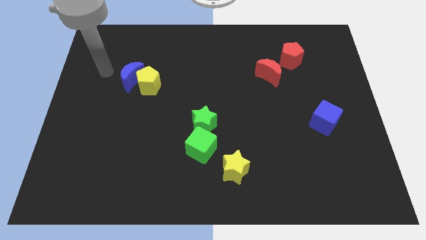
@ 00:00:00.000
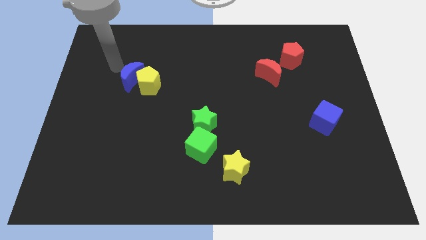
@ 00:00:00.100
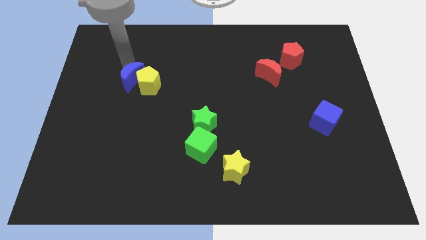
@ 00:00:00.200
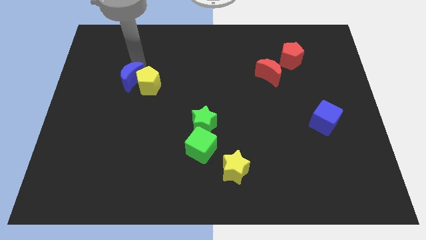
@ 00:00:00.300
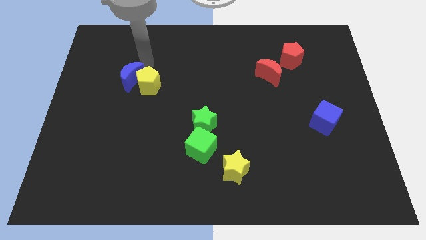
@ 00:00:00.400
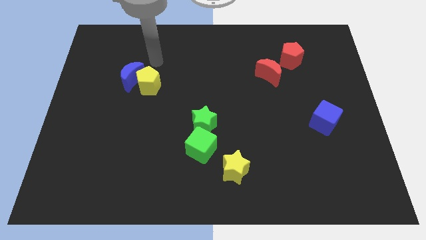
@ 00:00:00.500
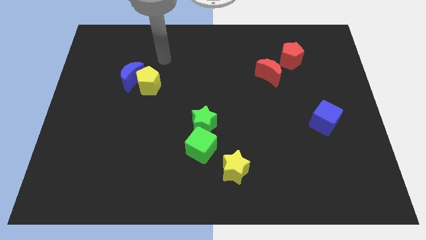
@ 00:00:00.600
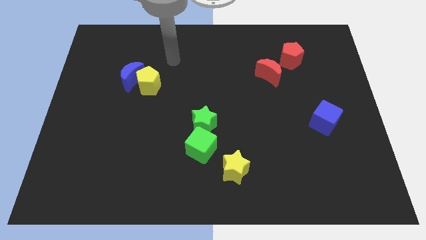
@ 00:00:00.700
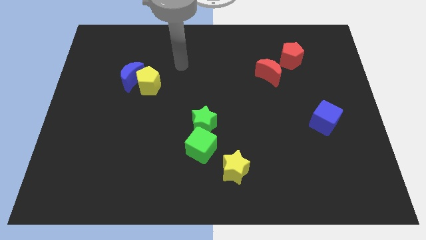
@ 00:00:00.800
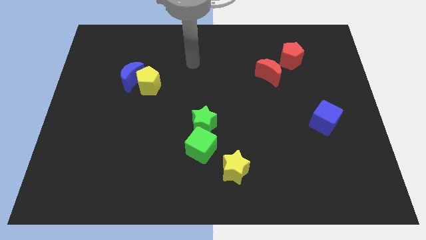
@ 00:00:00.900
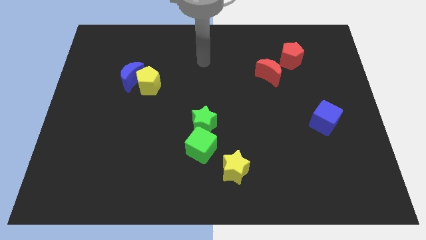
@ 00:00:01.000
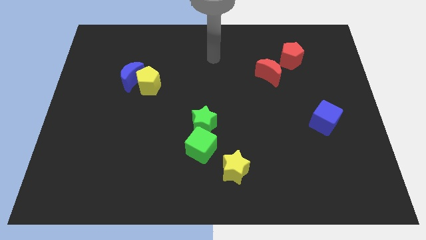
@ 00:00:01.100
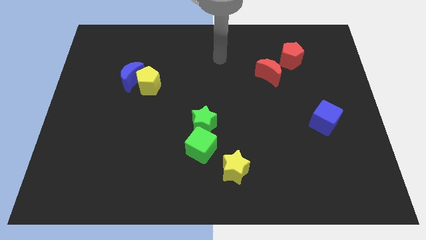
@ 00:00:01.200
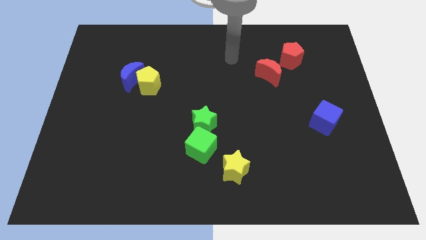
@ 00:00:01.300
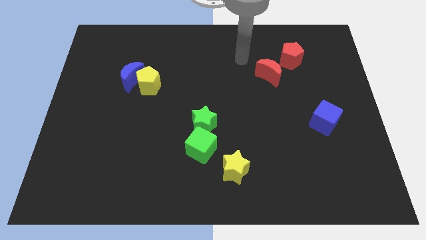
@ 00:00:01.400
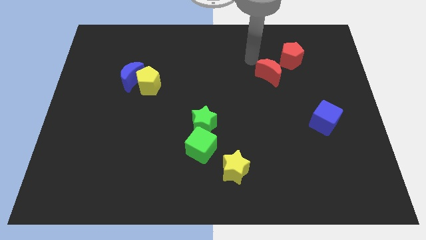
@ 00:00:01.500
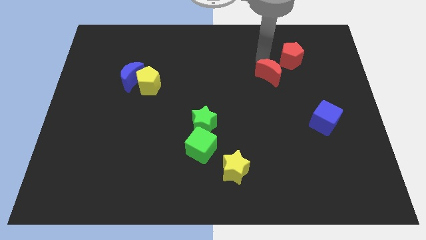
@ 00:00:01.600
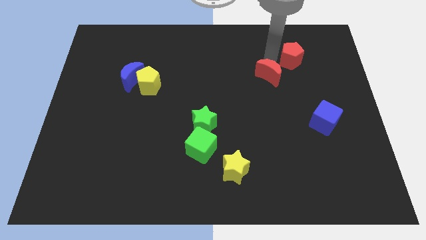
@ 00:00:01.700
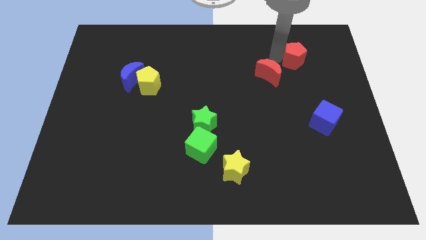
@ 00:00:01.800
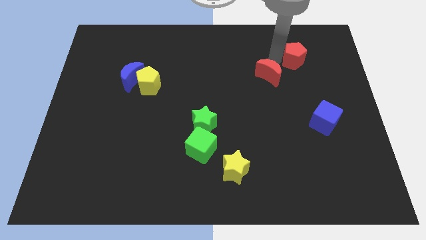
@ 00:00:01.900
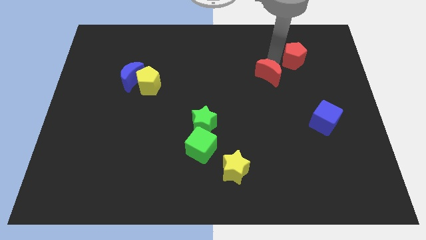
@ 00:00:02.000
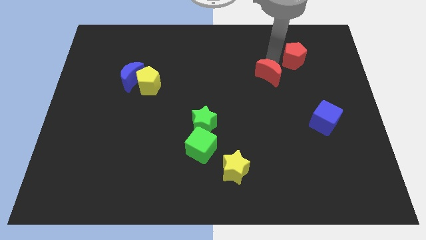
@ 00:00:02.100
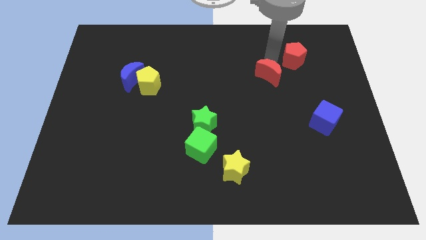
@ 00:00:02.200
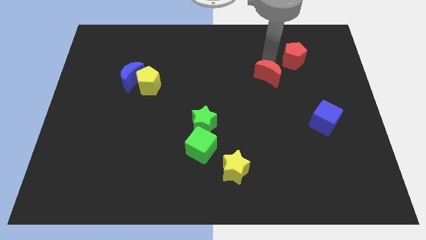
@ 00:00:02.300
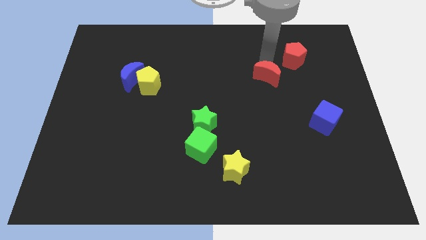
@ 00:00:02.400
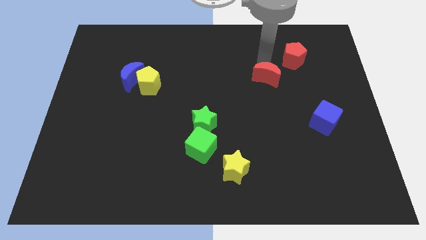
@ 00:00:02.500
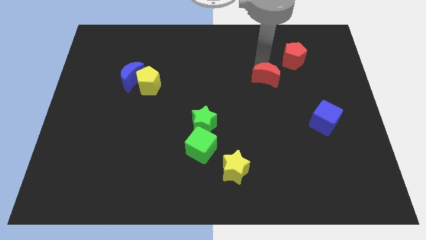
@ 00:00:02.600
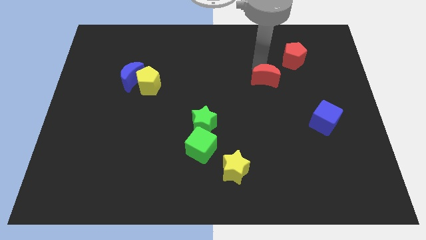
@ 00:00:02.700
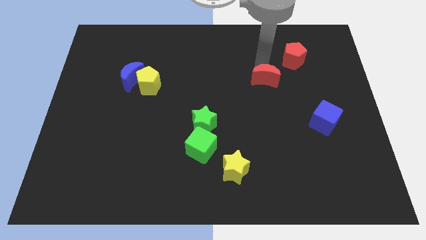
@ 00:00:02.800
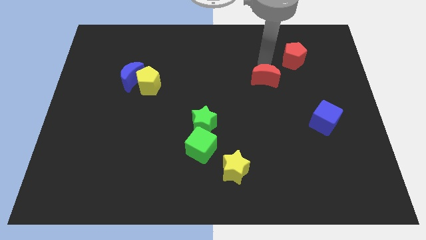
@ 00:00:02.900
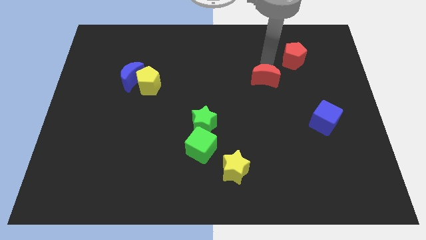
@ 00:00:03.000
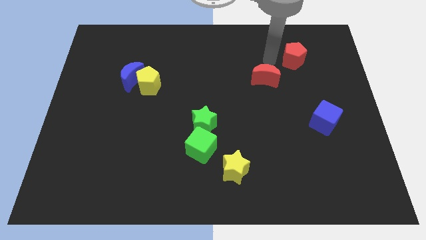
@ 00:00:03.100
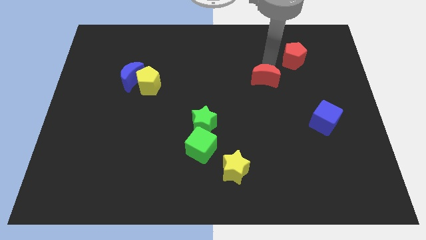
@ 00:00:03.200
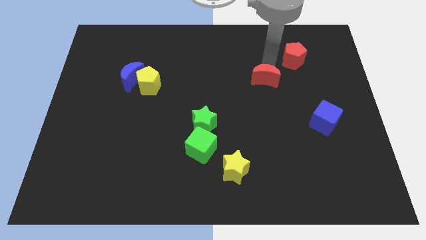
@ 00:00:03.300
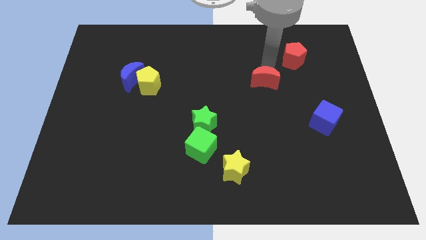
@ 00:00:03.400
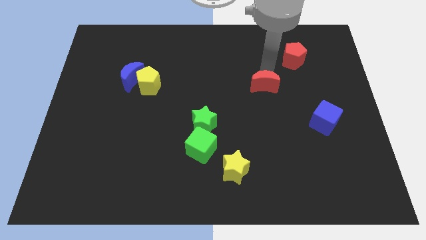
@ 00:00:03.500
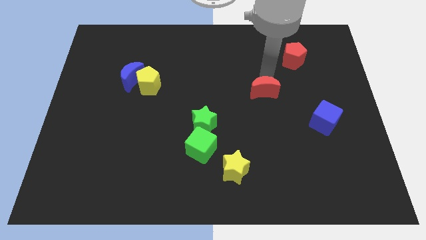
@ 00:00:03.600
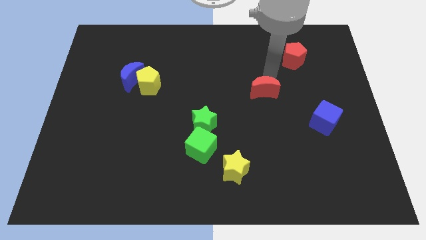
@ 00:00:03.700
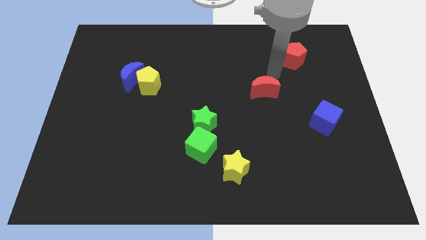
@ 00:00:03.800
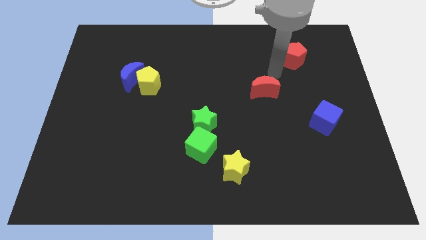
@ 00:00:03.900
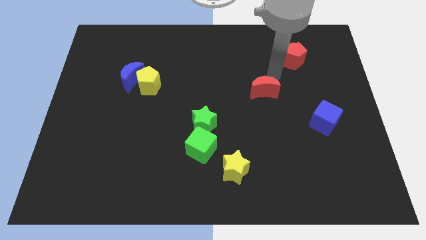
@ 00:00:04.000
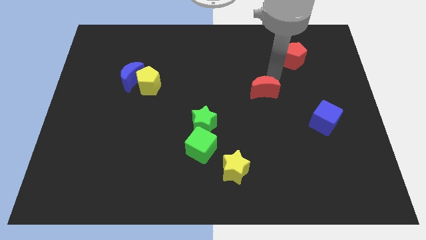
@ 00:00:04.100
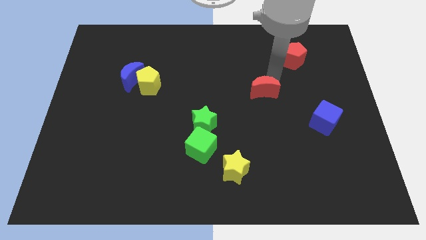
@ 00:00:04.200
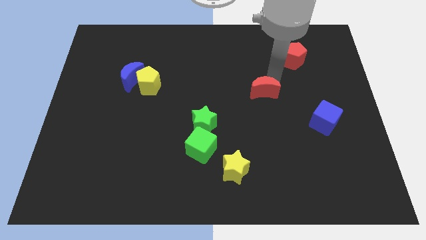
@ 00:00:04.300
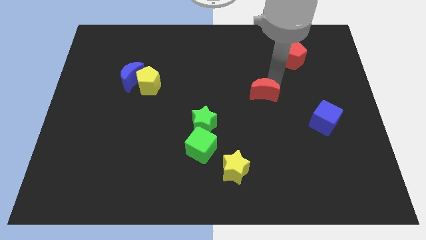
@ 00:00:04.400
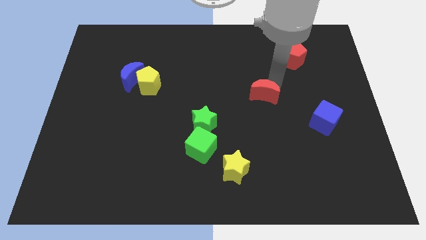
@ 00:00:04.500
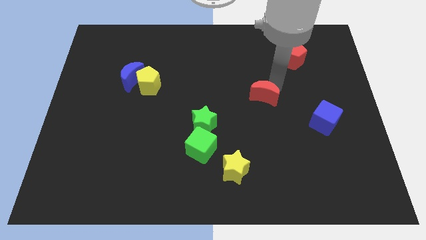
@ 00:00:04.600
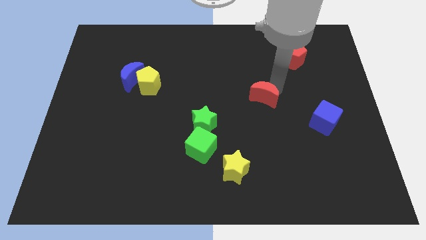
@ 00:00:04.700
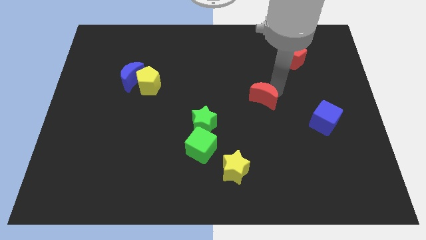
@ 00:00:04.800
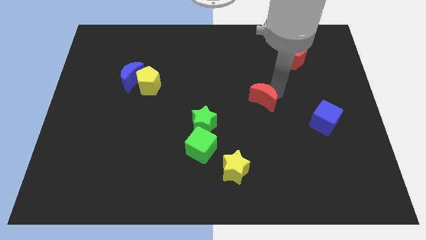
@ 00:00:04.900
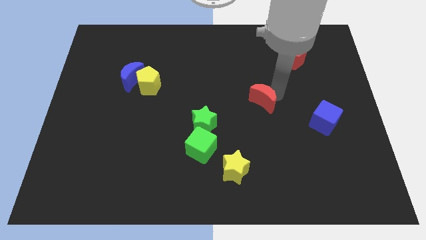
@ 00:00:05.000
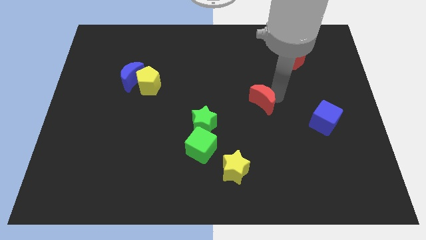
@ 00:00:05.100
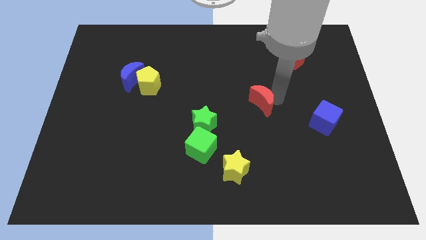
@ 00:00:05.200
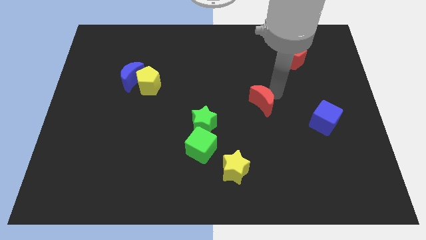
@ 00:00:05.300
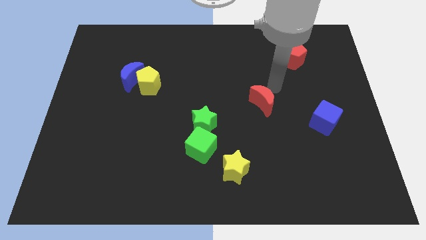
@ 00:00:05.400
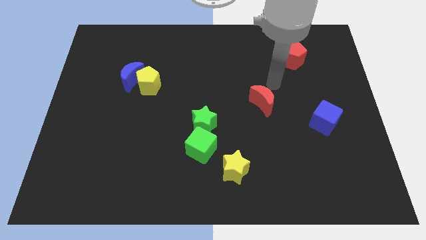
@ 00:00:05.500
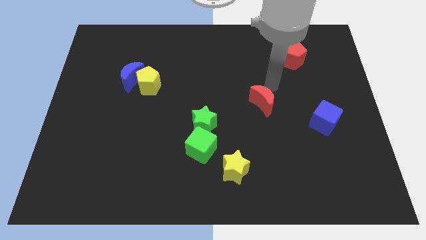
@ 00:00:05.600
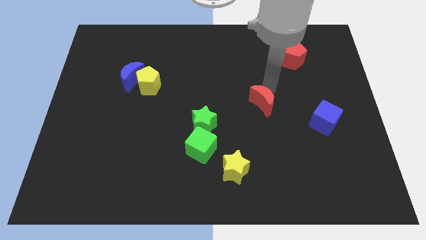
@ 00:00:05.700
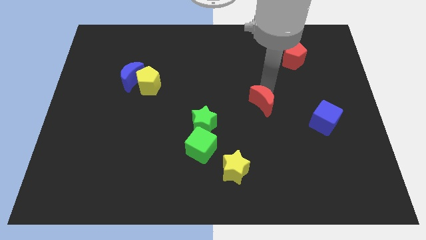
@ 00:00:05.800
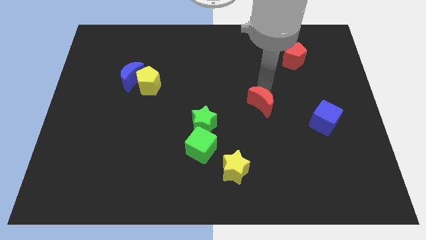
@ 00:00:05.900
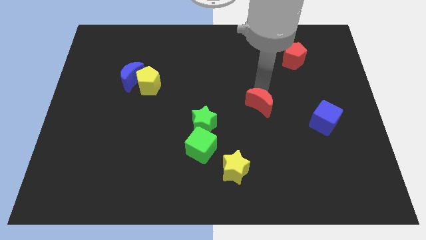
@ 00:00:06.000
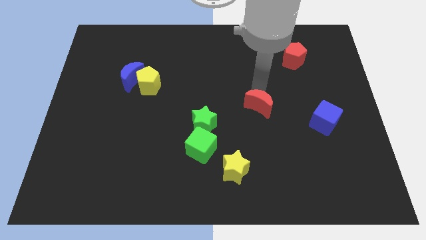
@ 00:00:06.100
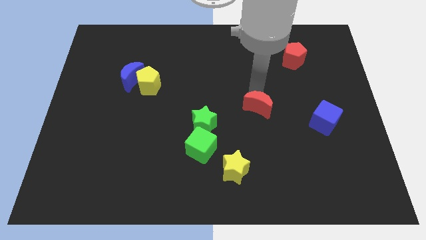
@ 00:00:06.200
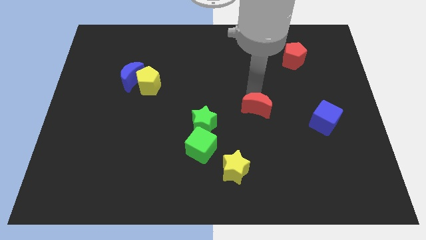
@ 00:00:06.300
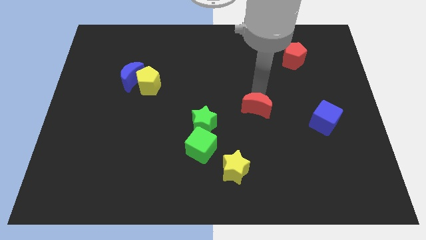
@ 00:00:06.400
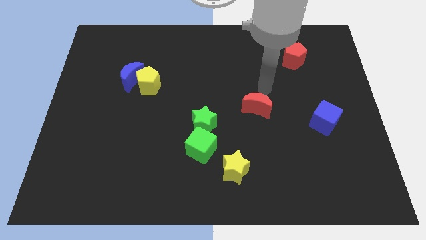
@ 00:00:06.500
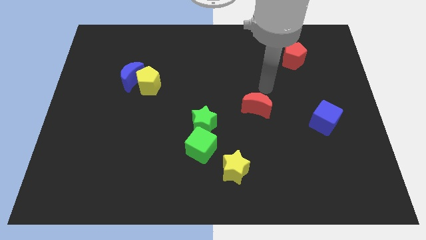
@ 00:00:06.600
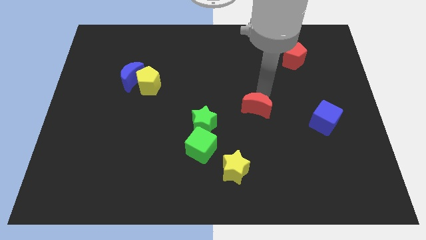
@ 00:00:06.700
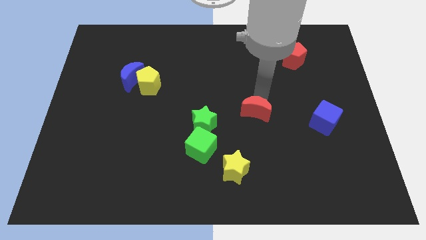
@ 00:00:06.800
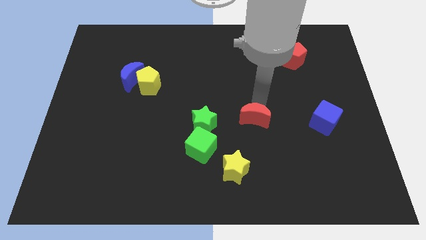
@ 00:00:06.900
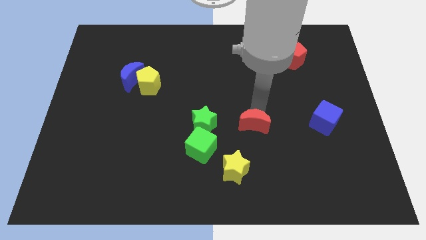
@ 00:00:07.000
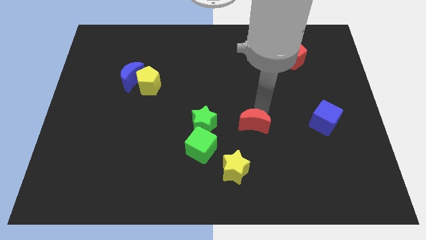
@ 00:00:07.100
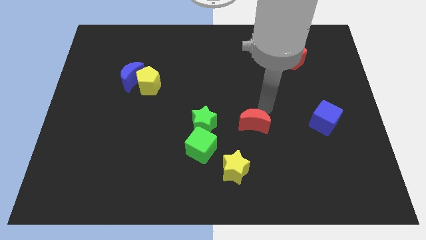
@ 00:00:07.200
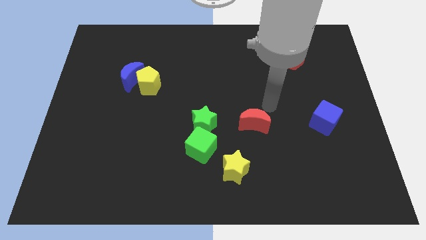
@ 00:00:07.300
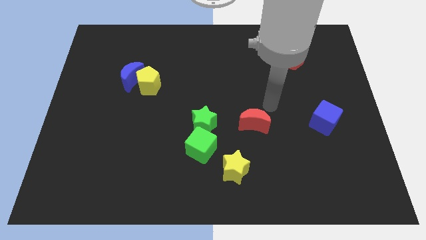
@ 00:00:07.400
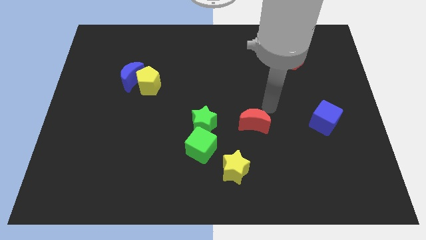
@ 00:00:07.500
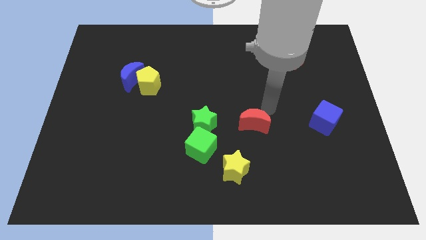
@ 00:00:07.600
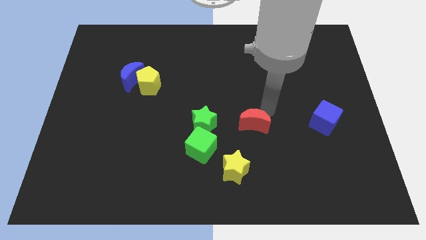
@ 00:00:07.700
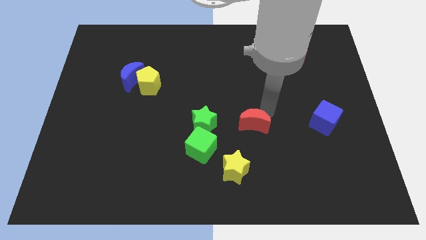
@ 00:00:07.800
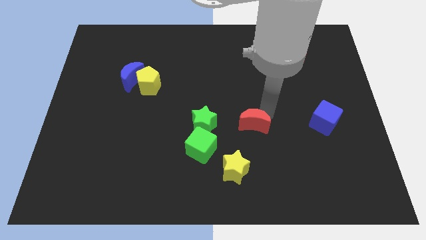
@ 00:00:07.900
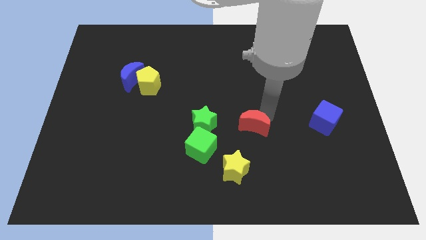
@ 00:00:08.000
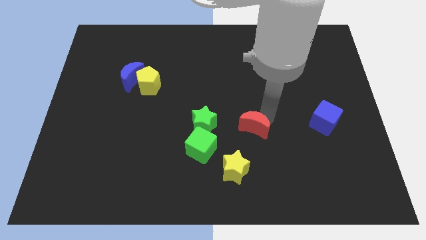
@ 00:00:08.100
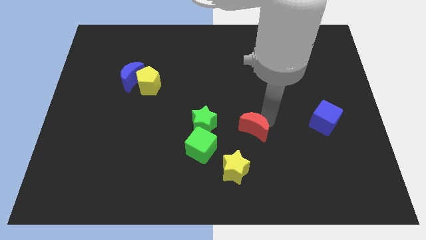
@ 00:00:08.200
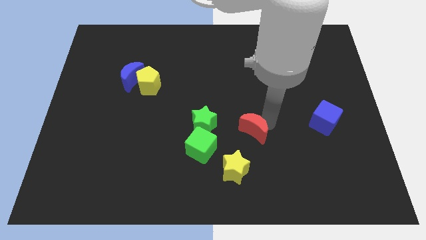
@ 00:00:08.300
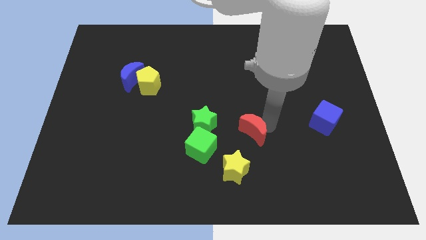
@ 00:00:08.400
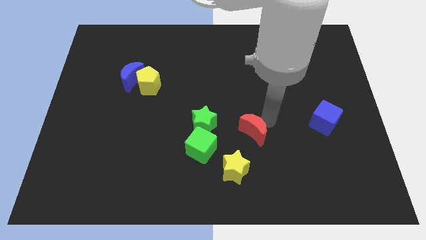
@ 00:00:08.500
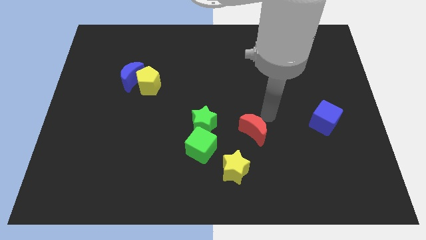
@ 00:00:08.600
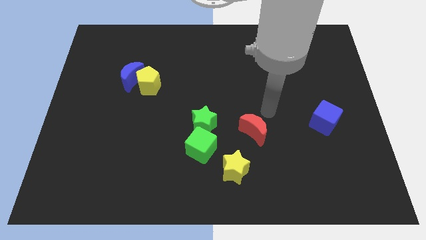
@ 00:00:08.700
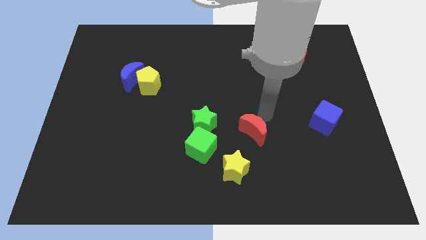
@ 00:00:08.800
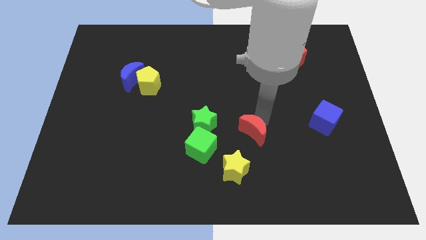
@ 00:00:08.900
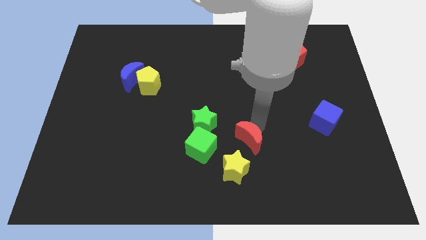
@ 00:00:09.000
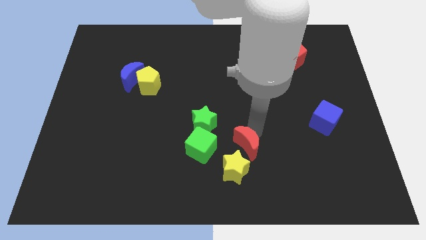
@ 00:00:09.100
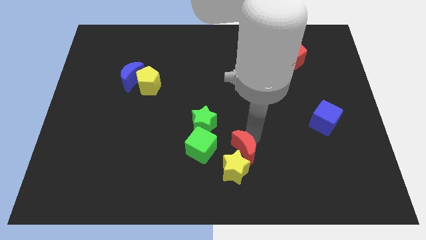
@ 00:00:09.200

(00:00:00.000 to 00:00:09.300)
move the red moon next to the yellow star
